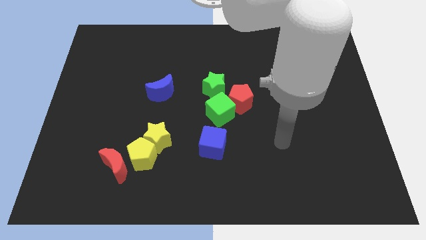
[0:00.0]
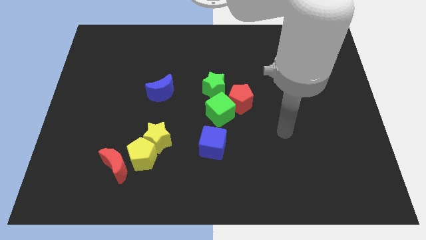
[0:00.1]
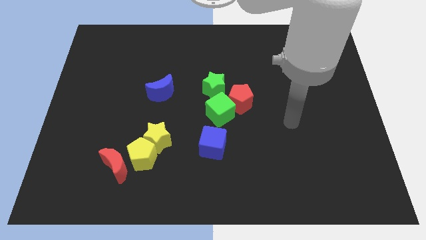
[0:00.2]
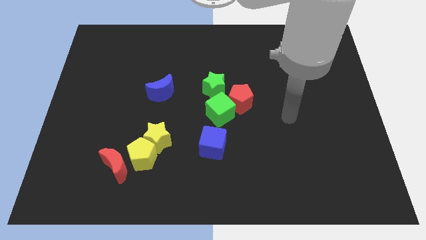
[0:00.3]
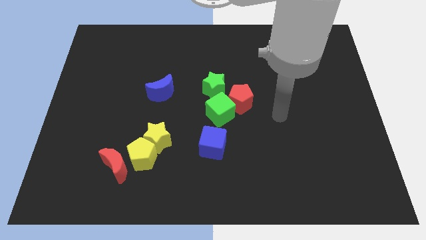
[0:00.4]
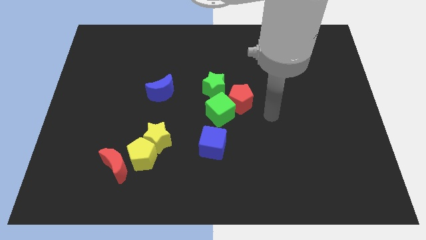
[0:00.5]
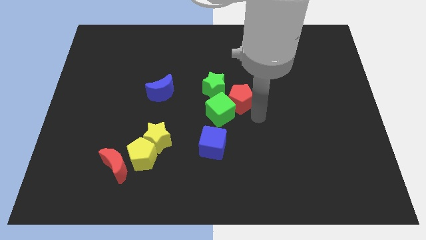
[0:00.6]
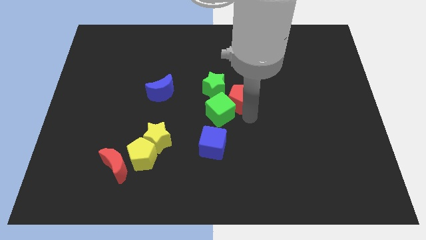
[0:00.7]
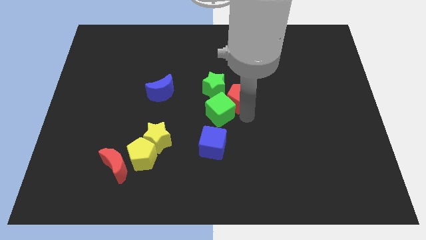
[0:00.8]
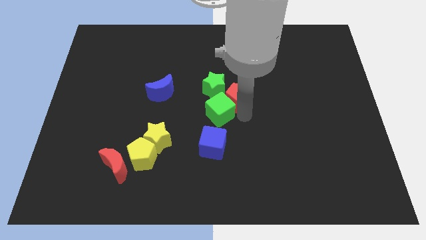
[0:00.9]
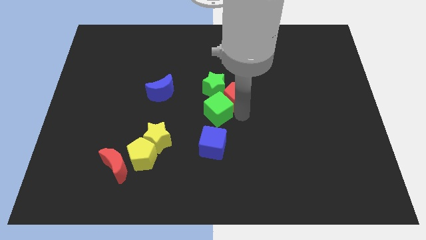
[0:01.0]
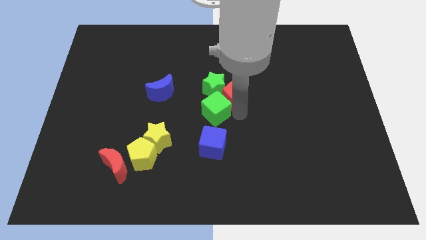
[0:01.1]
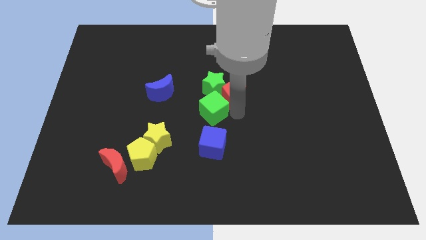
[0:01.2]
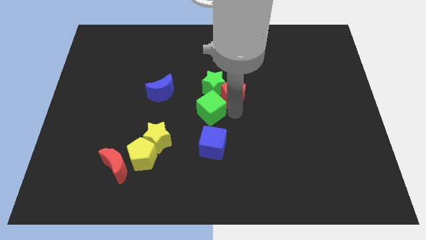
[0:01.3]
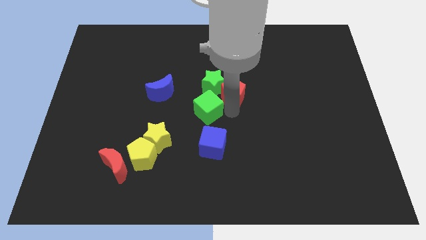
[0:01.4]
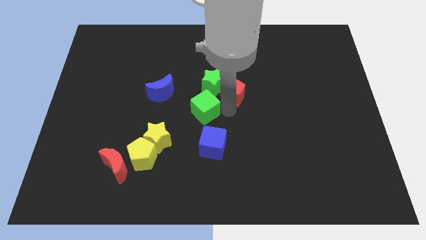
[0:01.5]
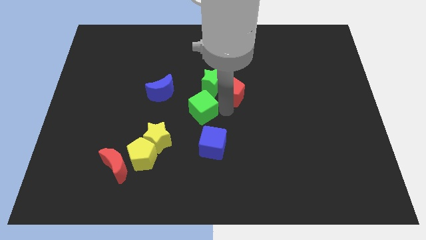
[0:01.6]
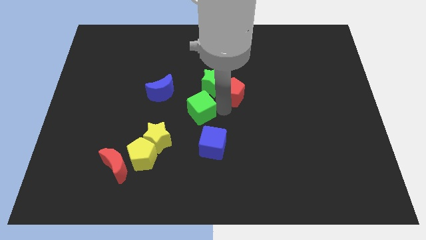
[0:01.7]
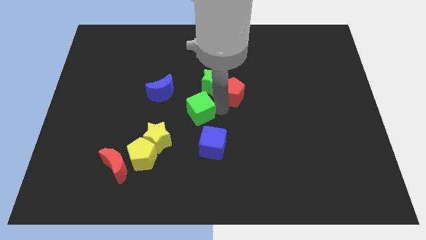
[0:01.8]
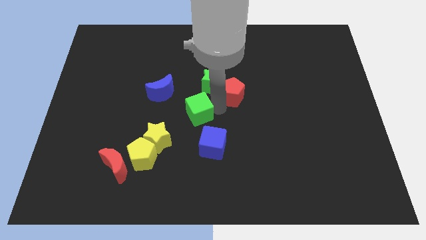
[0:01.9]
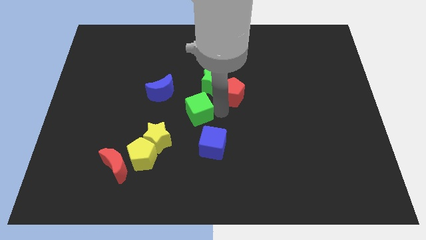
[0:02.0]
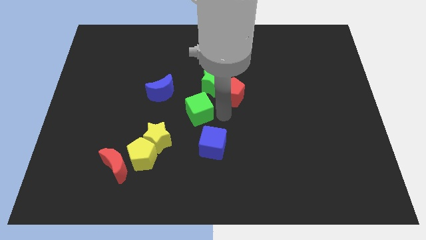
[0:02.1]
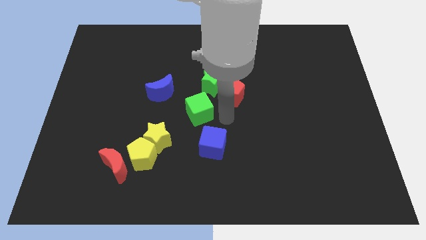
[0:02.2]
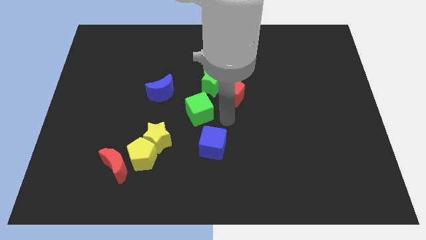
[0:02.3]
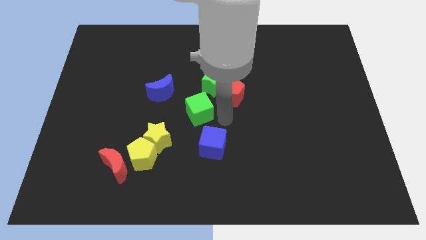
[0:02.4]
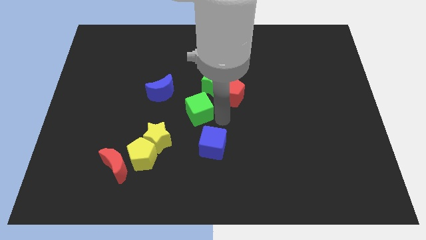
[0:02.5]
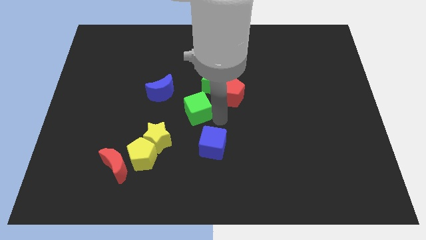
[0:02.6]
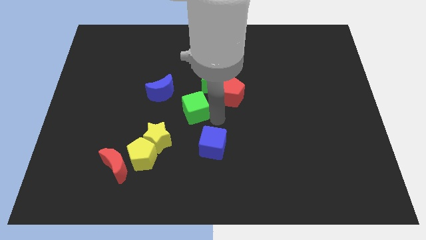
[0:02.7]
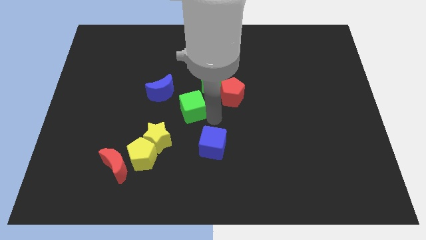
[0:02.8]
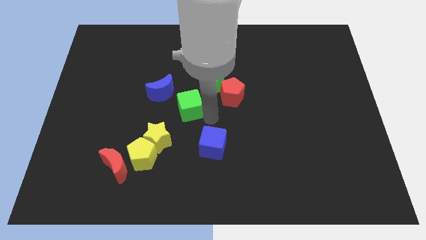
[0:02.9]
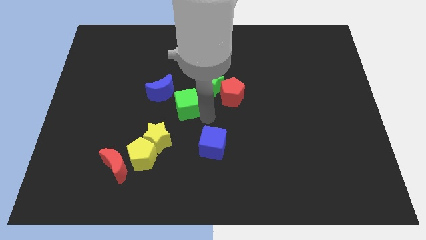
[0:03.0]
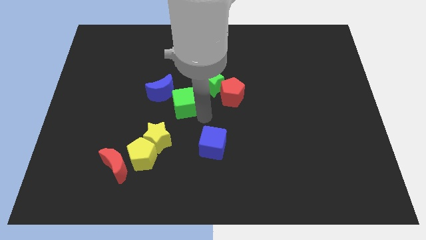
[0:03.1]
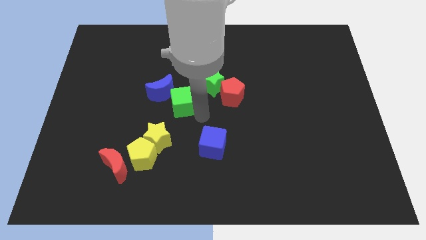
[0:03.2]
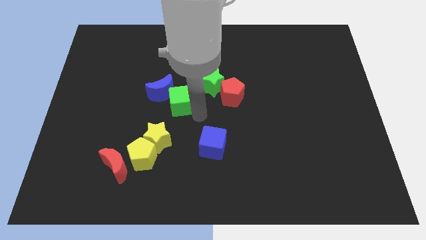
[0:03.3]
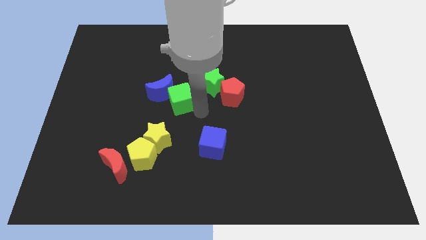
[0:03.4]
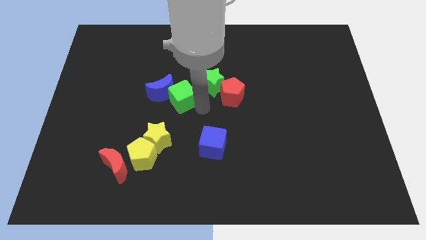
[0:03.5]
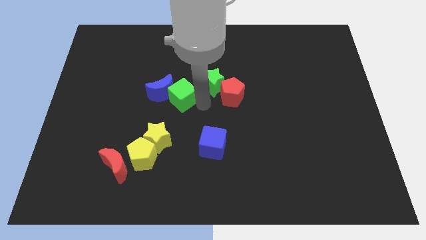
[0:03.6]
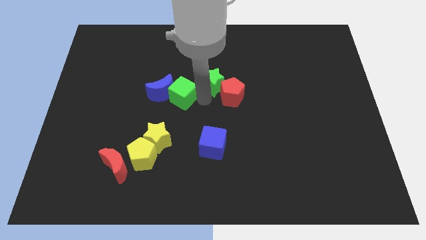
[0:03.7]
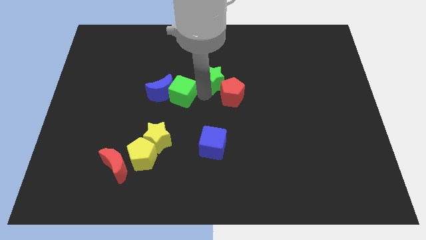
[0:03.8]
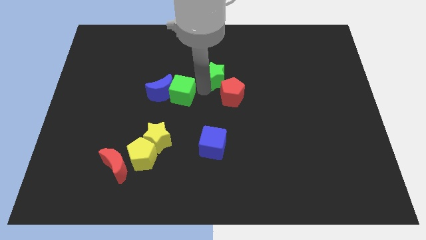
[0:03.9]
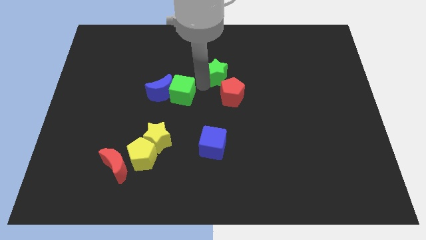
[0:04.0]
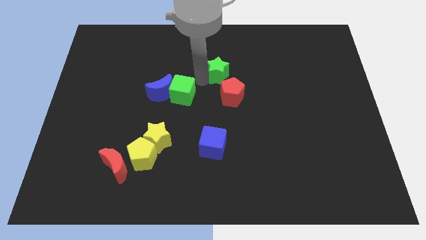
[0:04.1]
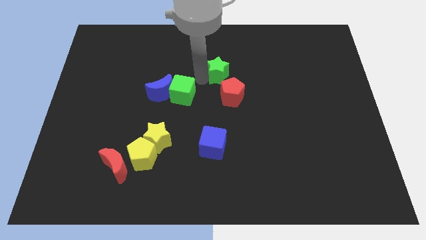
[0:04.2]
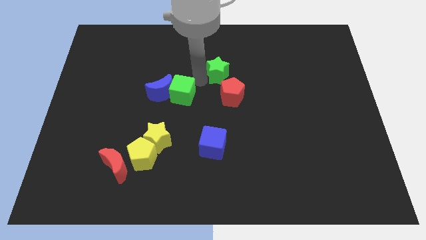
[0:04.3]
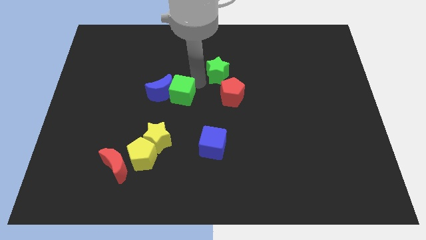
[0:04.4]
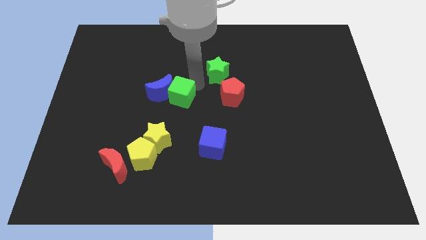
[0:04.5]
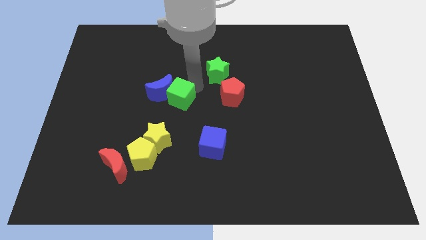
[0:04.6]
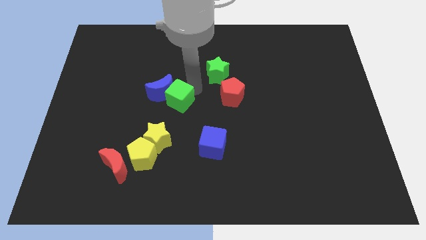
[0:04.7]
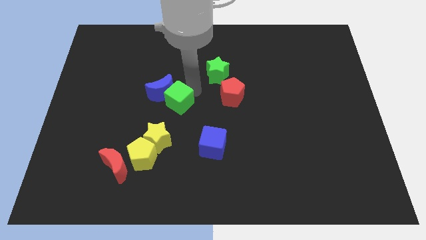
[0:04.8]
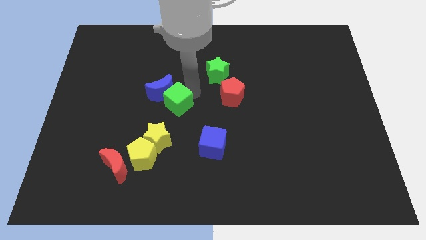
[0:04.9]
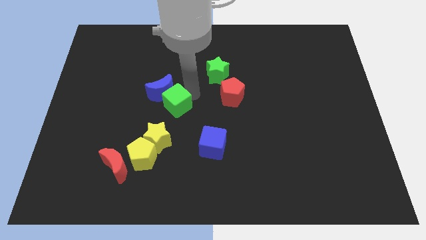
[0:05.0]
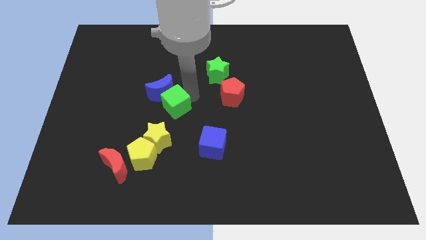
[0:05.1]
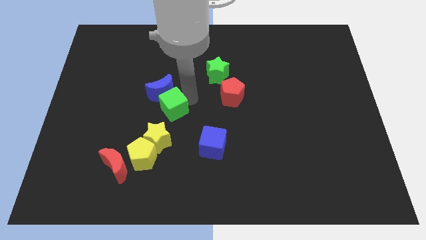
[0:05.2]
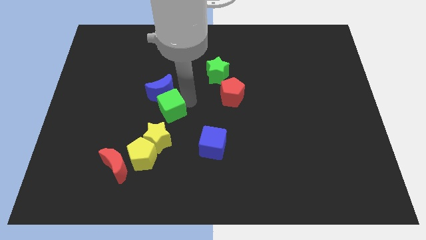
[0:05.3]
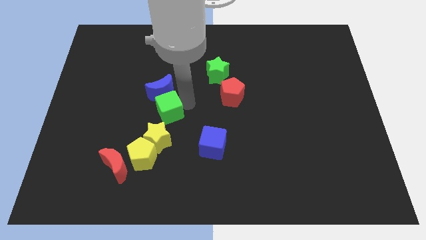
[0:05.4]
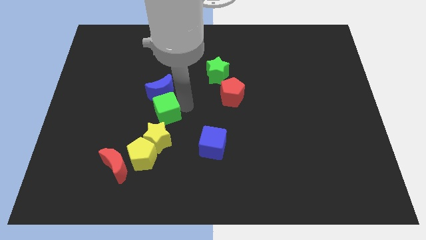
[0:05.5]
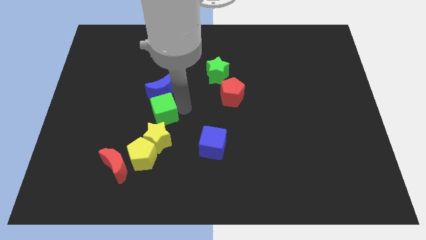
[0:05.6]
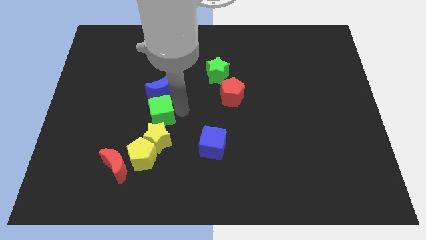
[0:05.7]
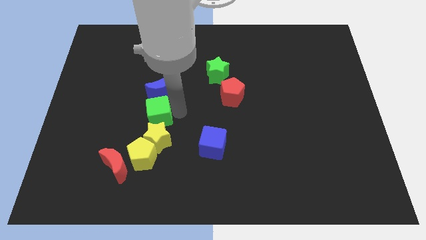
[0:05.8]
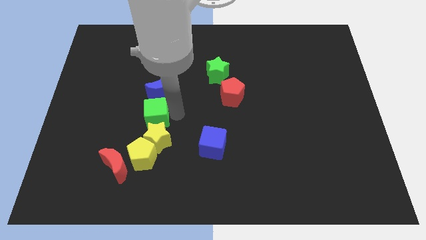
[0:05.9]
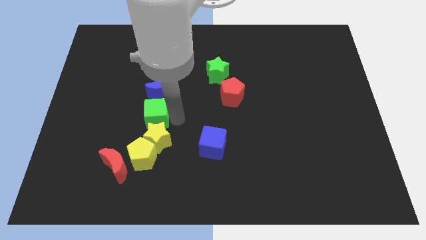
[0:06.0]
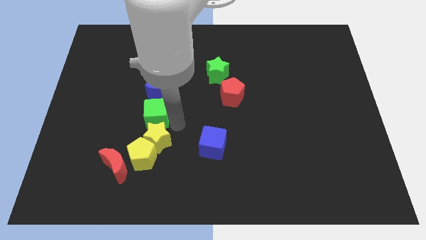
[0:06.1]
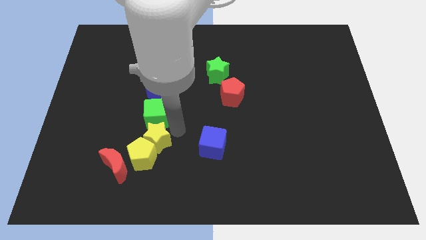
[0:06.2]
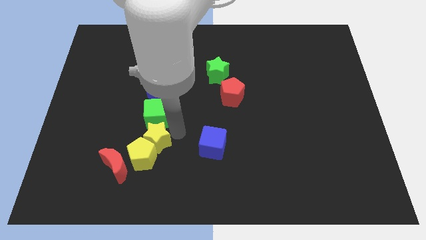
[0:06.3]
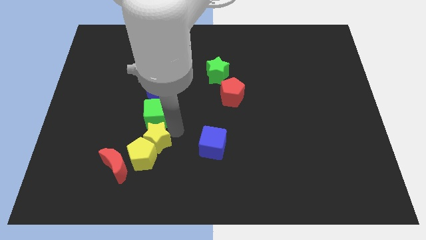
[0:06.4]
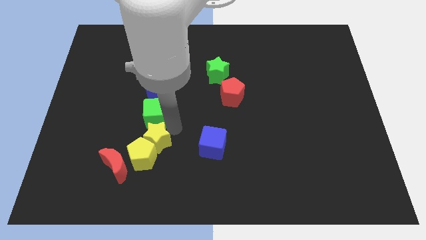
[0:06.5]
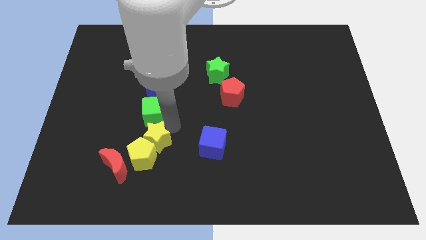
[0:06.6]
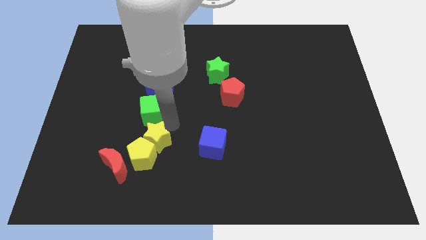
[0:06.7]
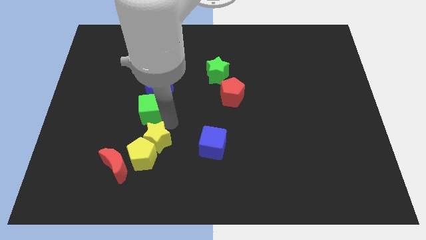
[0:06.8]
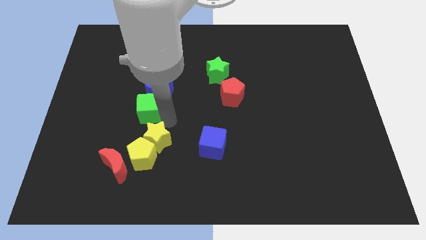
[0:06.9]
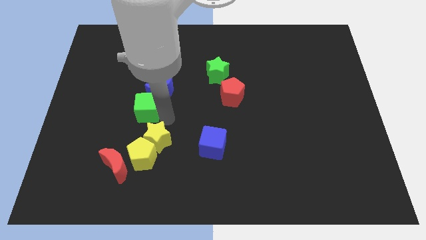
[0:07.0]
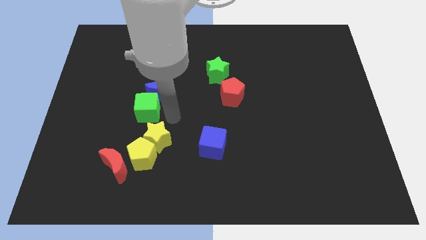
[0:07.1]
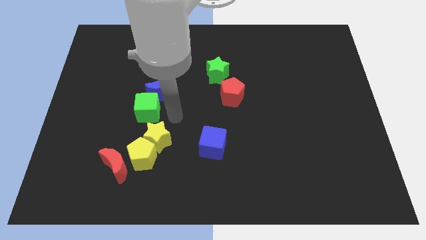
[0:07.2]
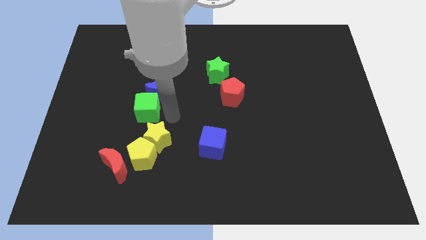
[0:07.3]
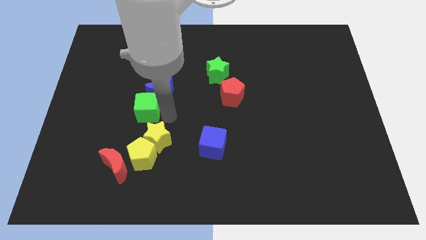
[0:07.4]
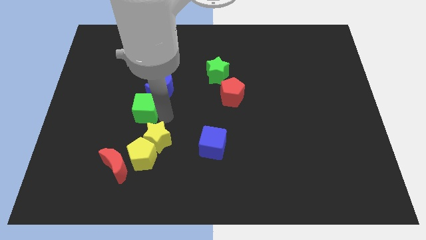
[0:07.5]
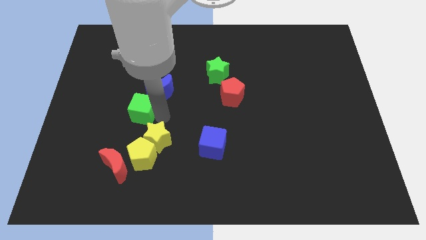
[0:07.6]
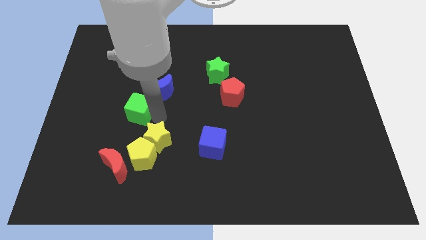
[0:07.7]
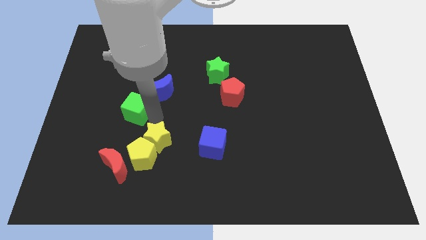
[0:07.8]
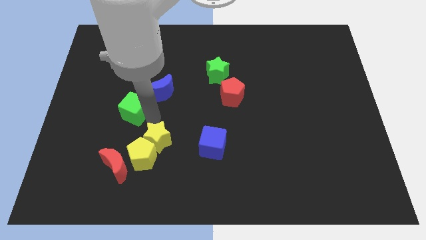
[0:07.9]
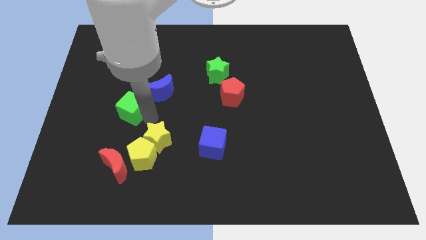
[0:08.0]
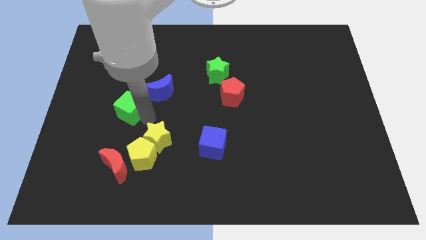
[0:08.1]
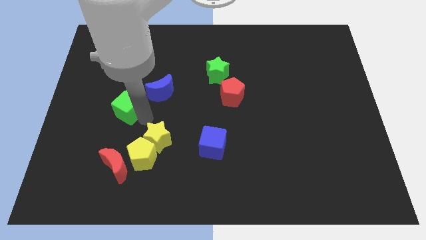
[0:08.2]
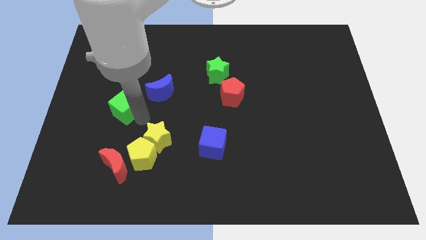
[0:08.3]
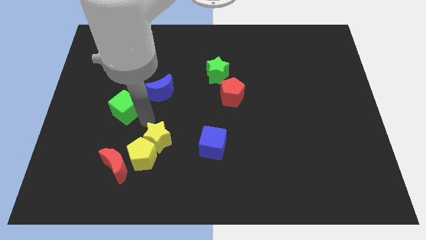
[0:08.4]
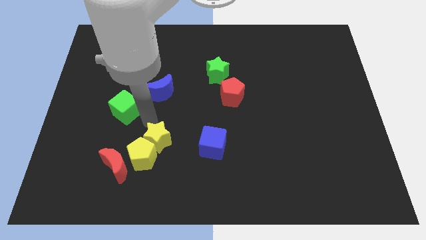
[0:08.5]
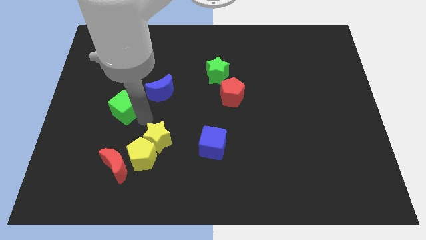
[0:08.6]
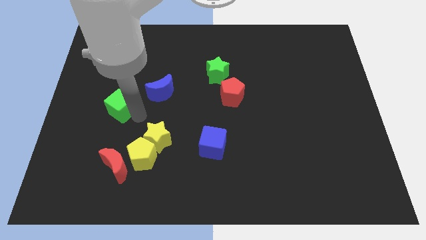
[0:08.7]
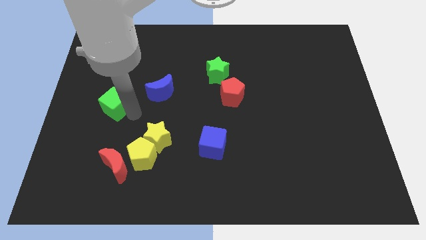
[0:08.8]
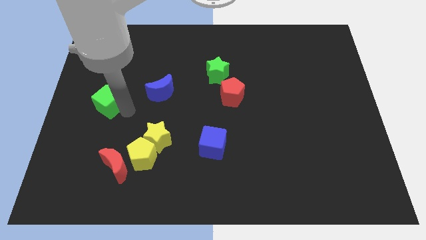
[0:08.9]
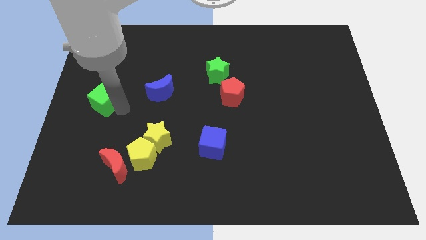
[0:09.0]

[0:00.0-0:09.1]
push the green cube to the left side
